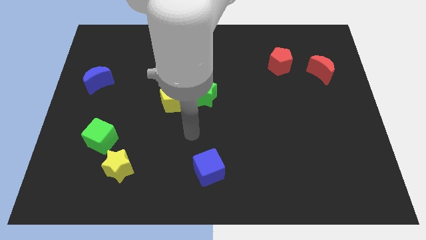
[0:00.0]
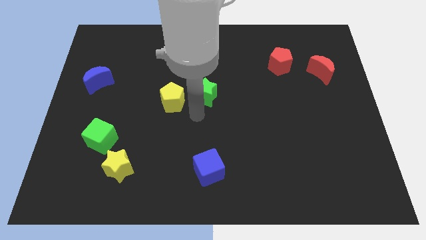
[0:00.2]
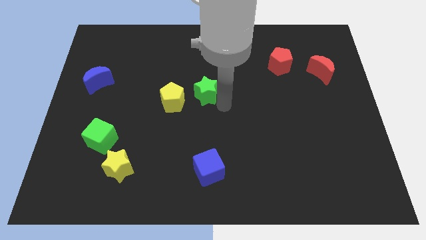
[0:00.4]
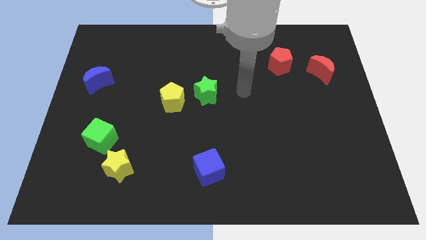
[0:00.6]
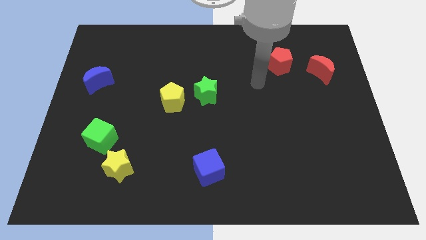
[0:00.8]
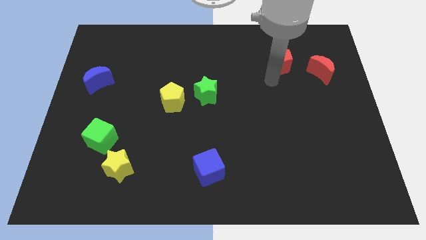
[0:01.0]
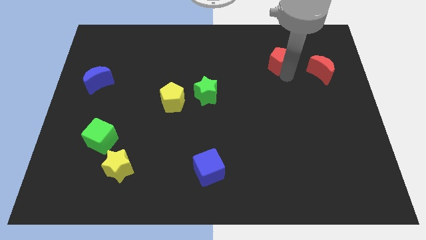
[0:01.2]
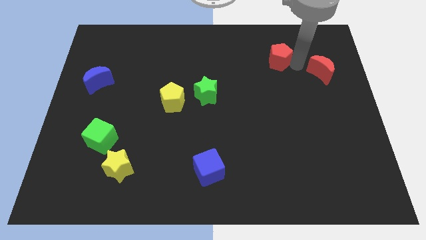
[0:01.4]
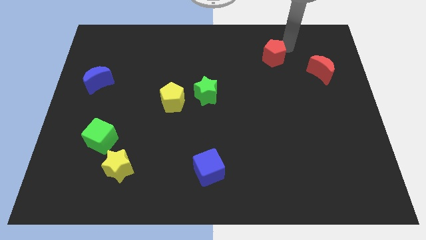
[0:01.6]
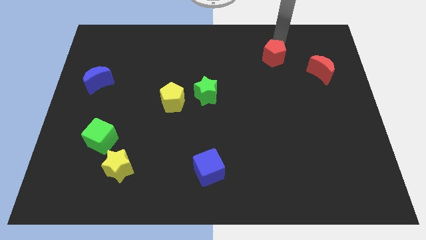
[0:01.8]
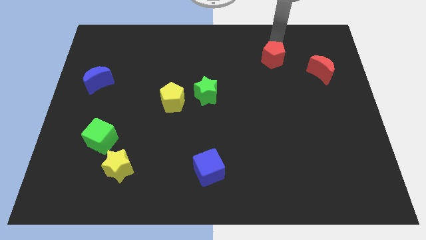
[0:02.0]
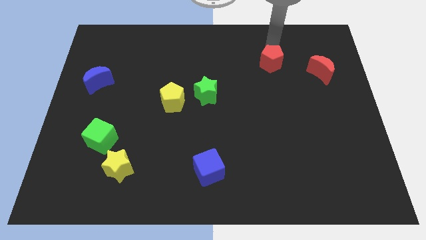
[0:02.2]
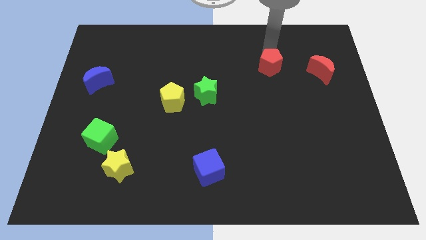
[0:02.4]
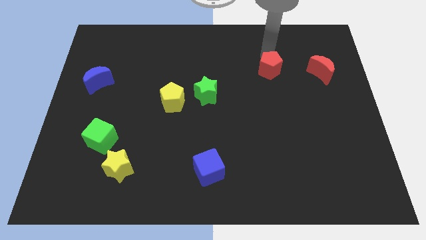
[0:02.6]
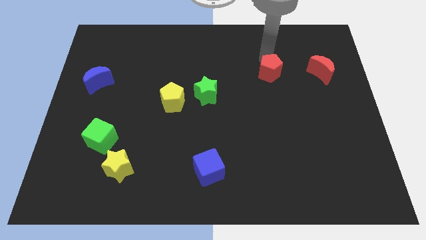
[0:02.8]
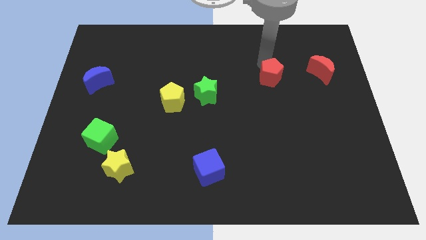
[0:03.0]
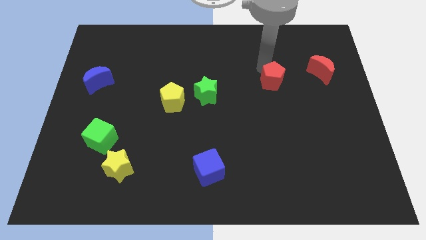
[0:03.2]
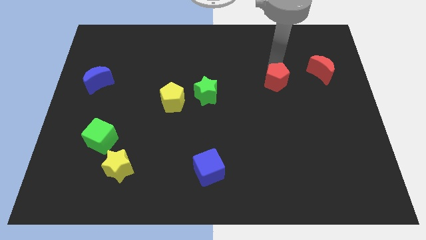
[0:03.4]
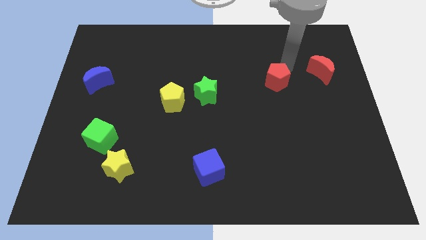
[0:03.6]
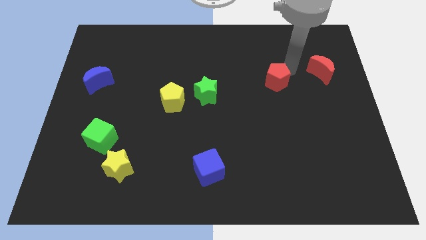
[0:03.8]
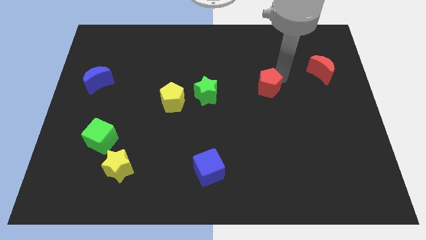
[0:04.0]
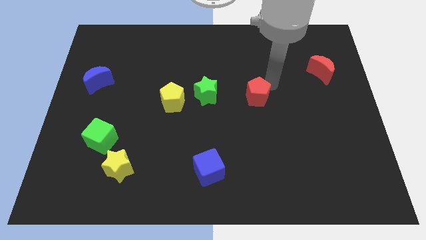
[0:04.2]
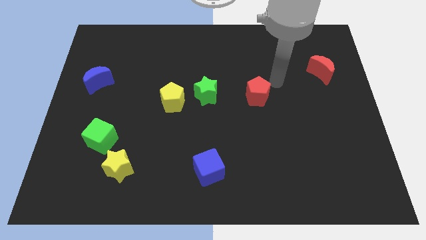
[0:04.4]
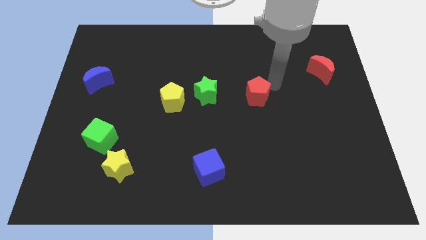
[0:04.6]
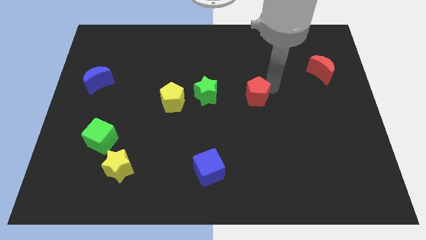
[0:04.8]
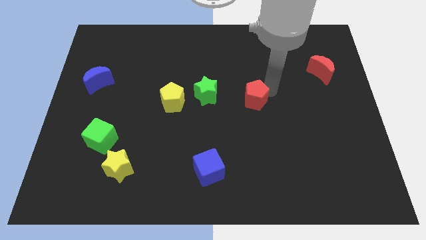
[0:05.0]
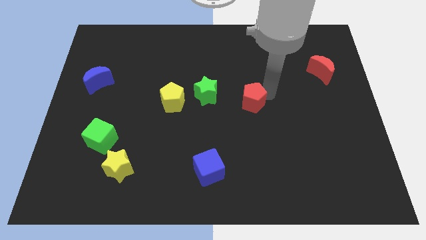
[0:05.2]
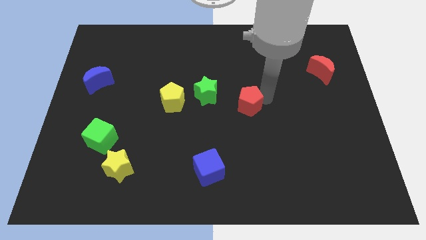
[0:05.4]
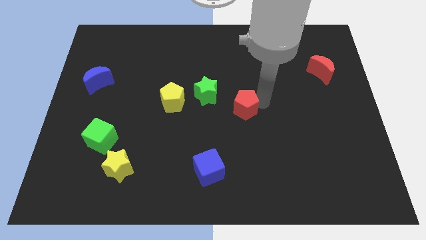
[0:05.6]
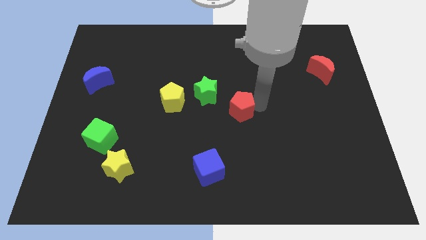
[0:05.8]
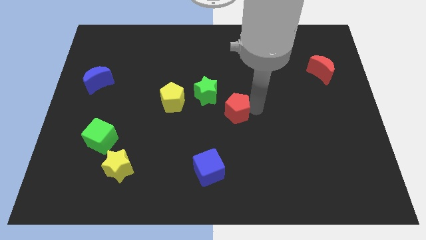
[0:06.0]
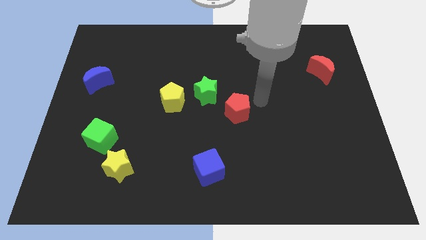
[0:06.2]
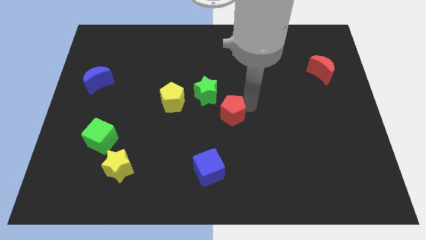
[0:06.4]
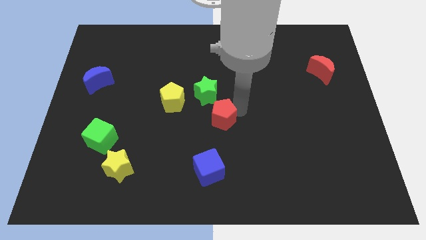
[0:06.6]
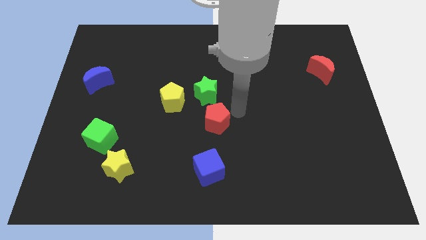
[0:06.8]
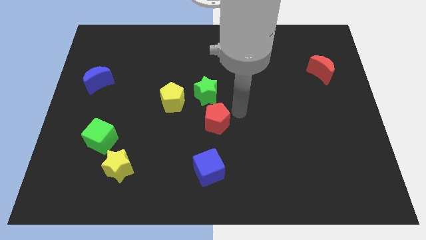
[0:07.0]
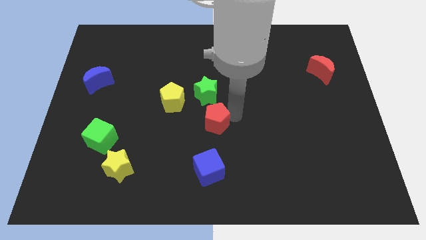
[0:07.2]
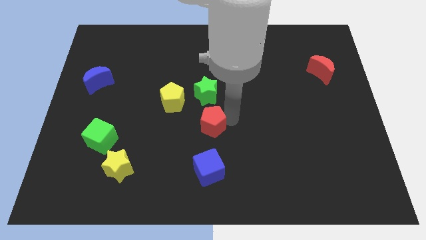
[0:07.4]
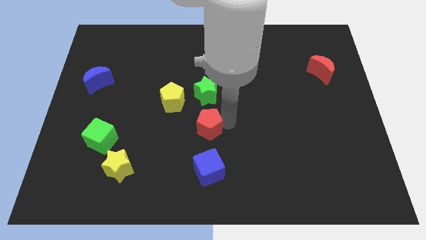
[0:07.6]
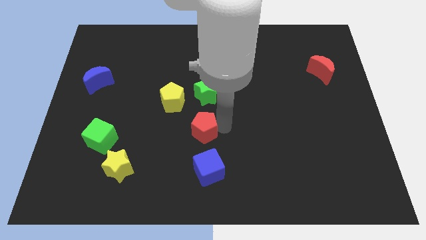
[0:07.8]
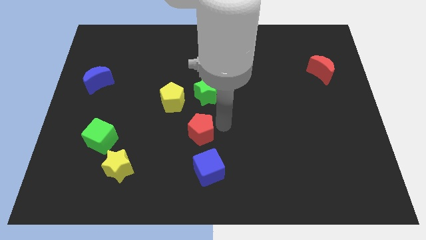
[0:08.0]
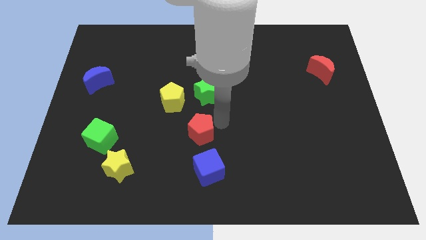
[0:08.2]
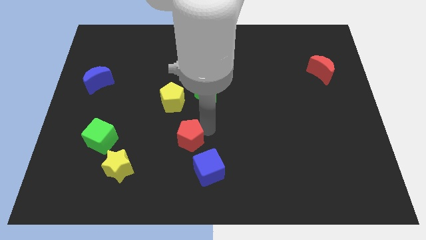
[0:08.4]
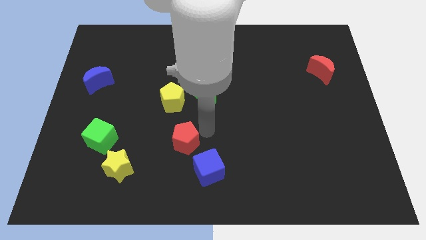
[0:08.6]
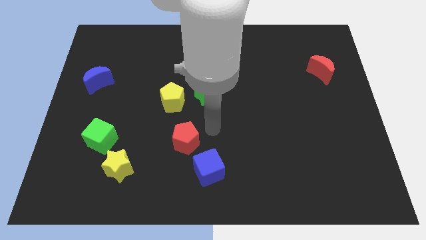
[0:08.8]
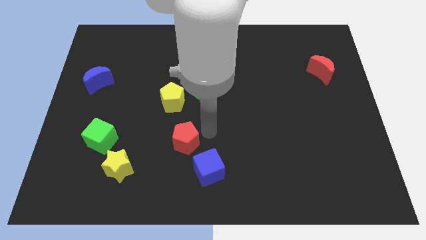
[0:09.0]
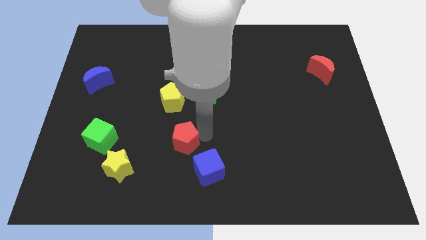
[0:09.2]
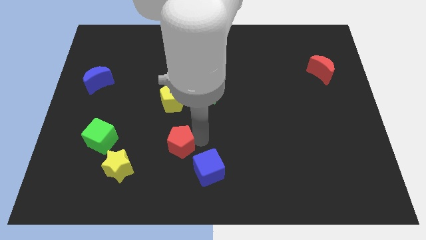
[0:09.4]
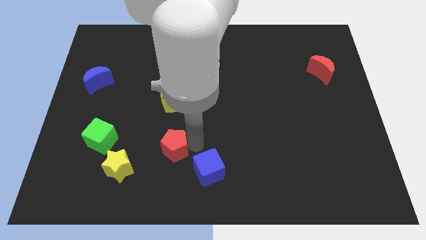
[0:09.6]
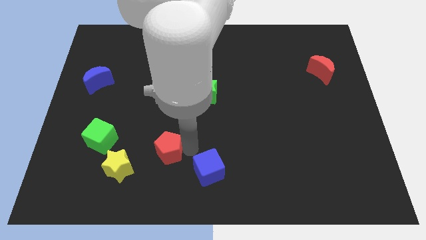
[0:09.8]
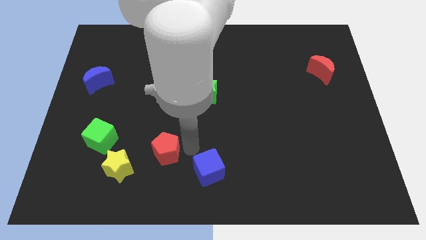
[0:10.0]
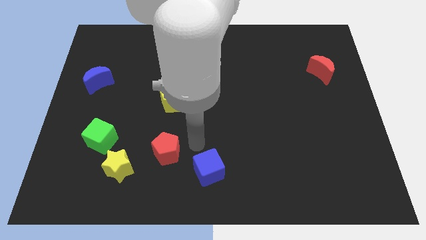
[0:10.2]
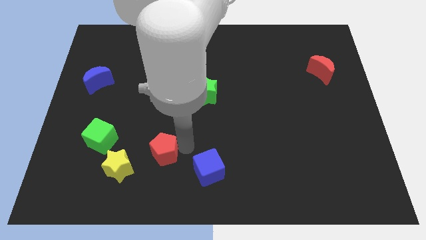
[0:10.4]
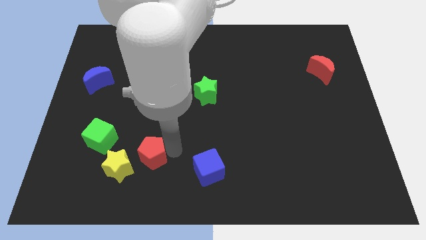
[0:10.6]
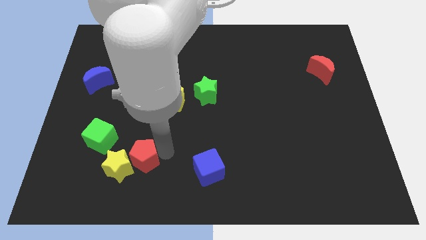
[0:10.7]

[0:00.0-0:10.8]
put the red pentagon towards the yellow star

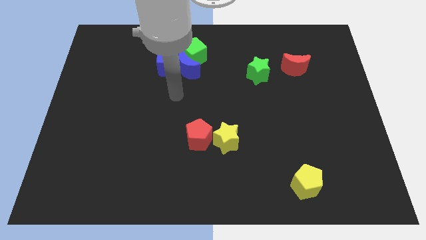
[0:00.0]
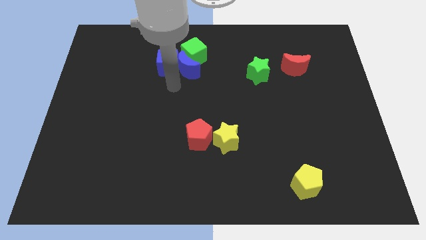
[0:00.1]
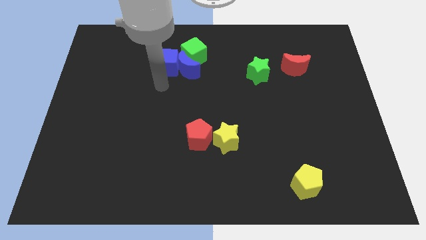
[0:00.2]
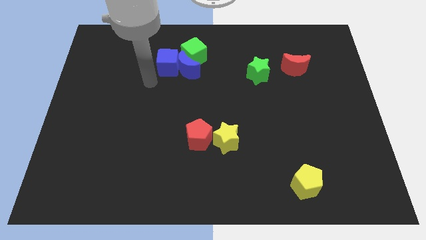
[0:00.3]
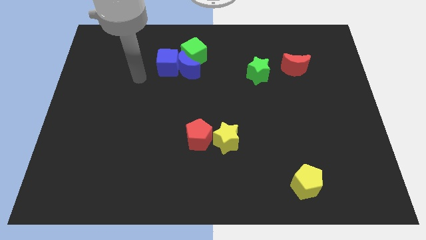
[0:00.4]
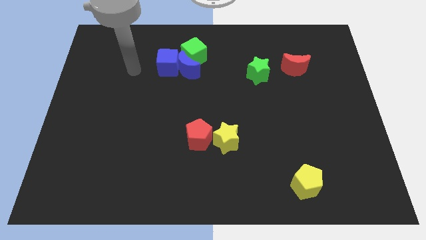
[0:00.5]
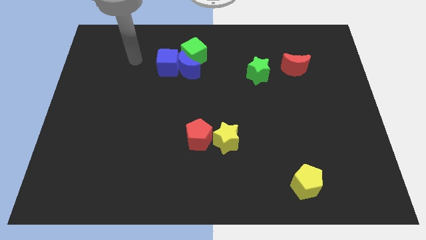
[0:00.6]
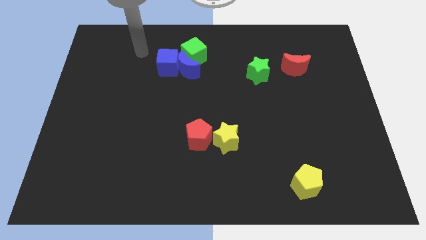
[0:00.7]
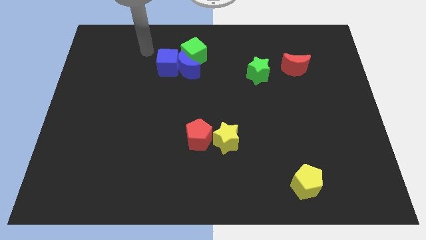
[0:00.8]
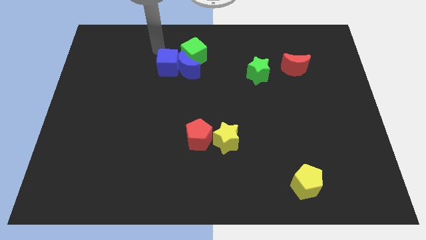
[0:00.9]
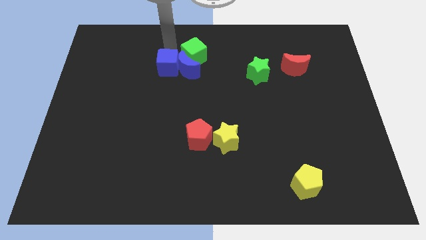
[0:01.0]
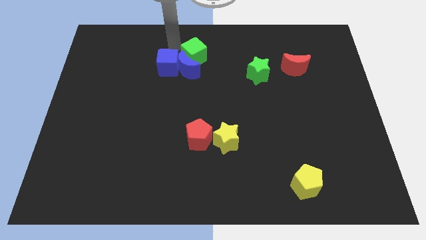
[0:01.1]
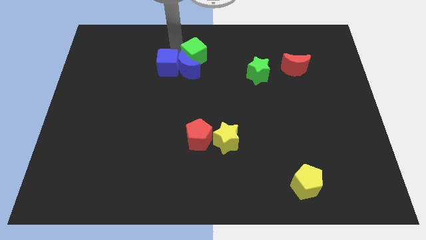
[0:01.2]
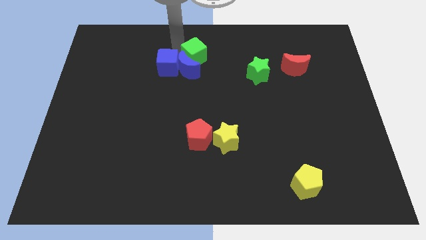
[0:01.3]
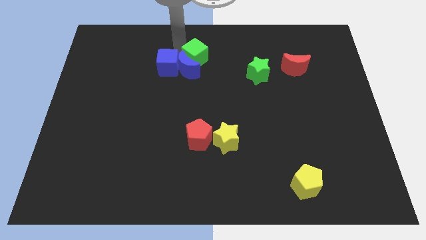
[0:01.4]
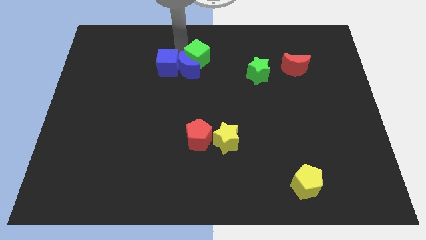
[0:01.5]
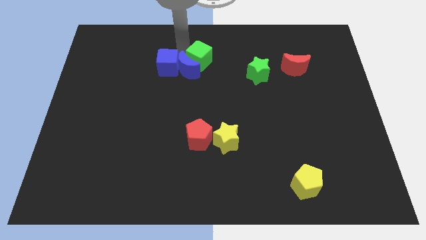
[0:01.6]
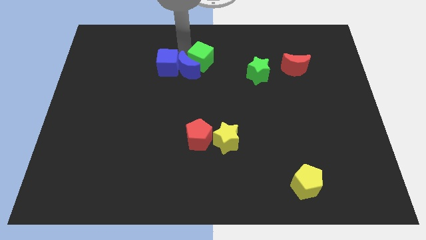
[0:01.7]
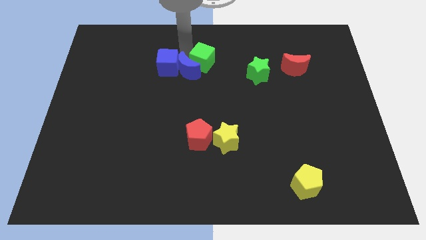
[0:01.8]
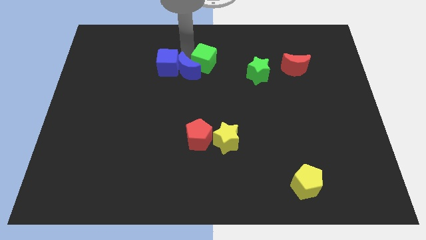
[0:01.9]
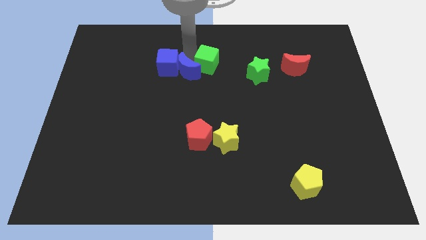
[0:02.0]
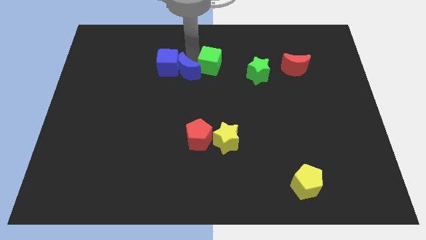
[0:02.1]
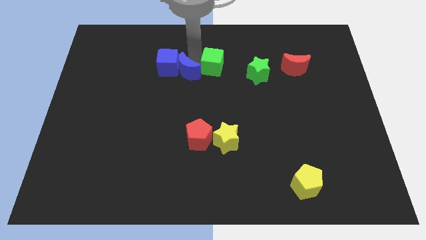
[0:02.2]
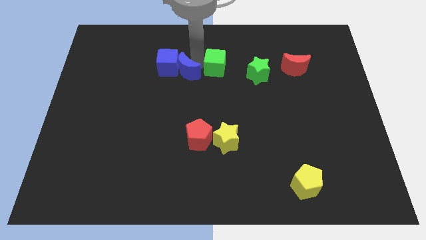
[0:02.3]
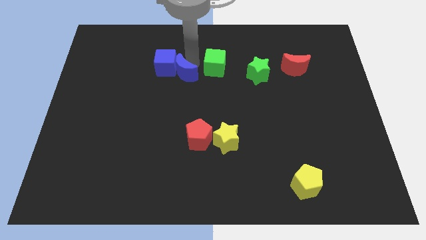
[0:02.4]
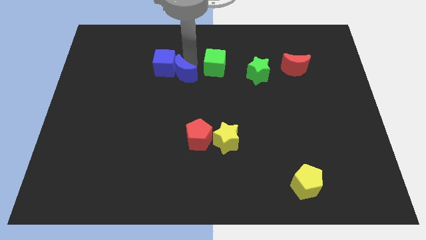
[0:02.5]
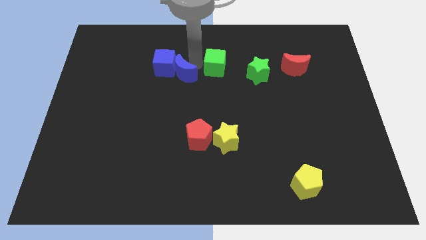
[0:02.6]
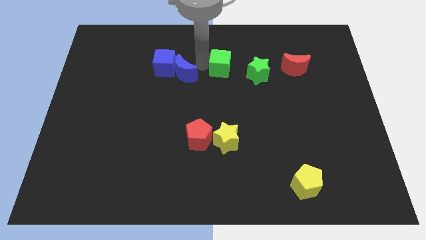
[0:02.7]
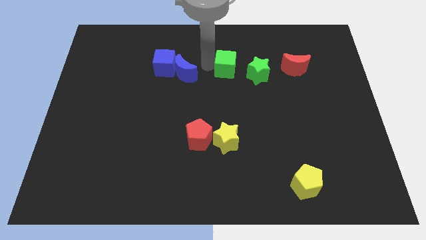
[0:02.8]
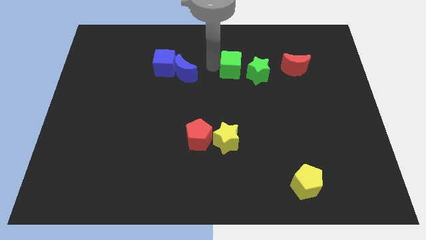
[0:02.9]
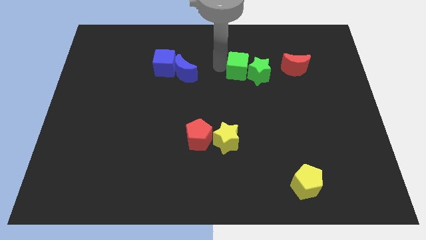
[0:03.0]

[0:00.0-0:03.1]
push the green cube next to the green star
